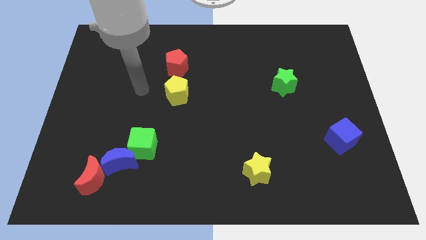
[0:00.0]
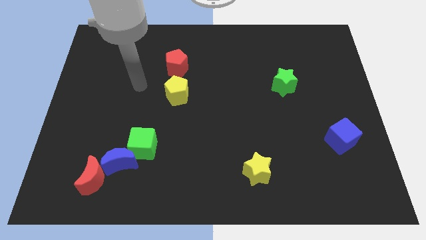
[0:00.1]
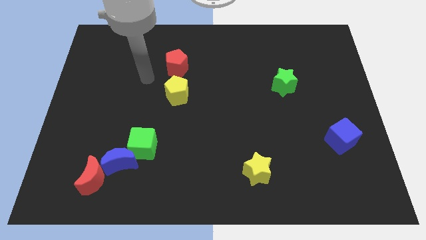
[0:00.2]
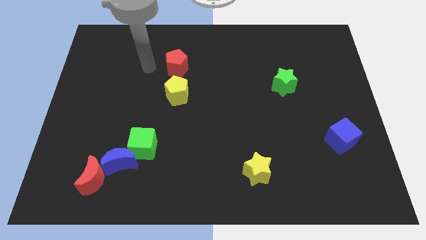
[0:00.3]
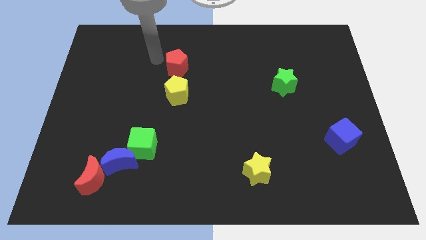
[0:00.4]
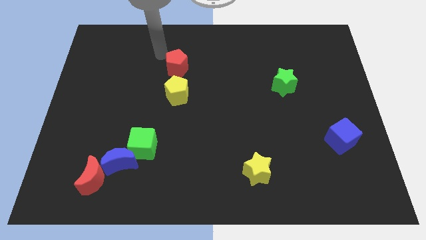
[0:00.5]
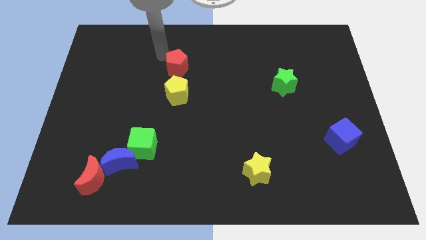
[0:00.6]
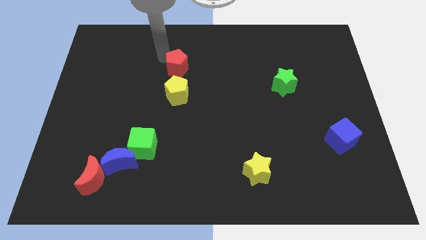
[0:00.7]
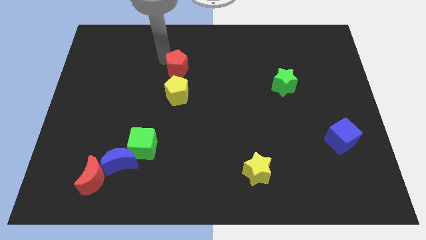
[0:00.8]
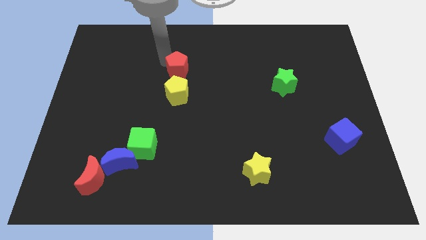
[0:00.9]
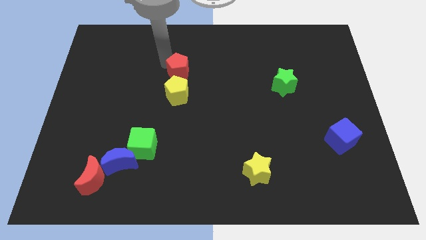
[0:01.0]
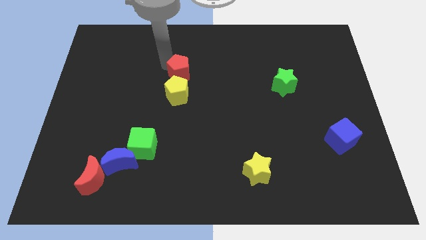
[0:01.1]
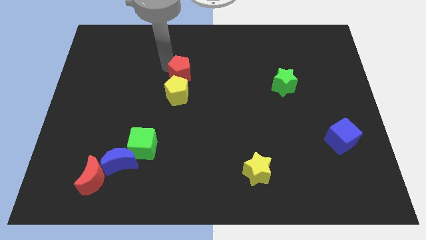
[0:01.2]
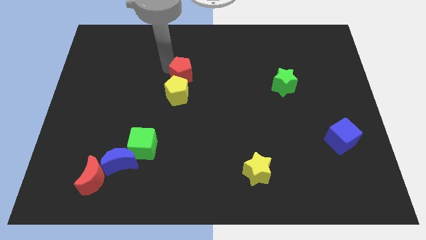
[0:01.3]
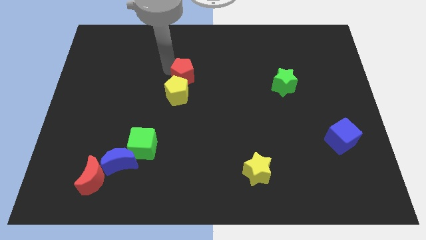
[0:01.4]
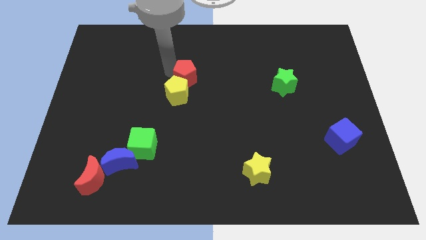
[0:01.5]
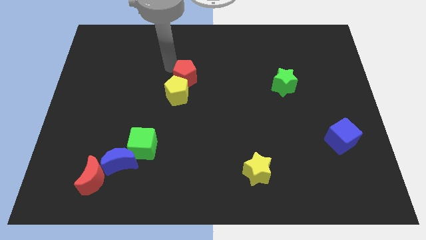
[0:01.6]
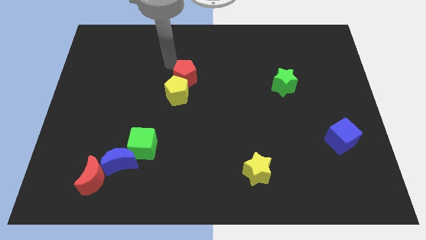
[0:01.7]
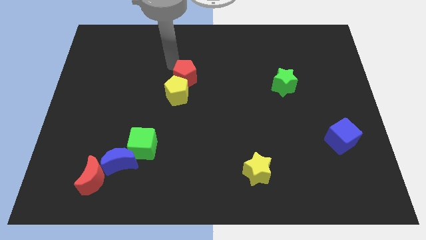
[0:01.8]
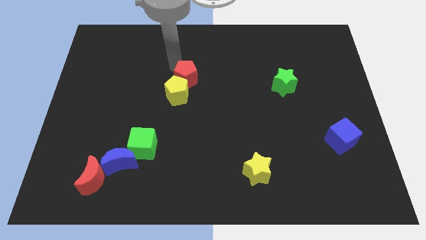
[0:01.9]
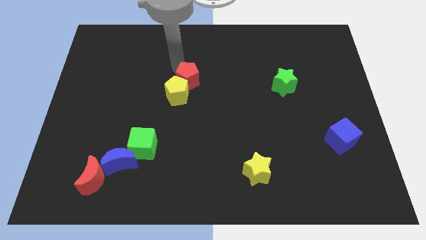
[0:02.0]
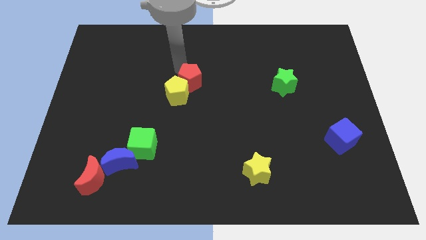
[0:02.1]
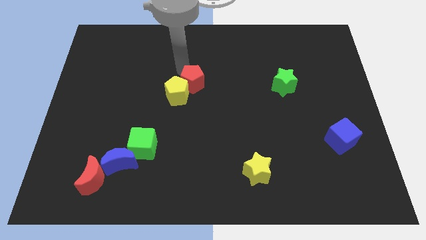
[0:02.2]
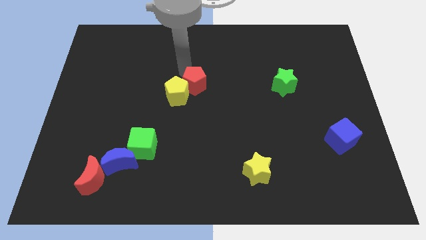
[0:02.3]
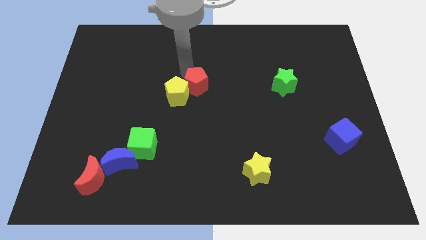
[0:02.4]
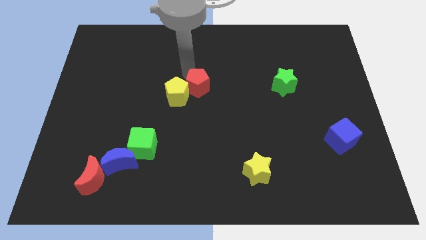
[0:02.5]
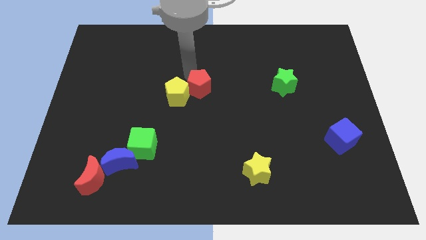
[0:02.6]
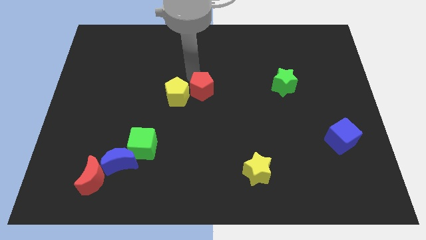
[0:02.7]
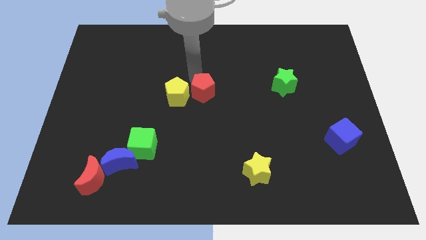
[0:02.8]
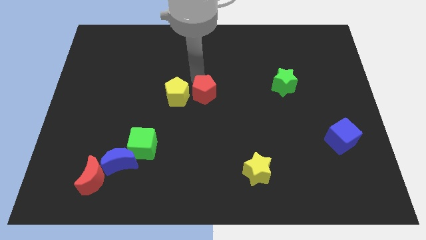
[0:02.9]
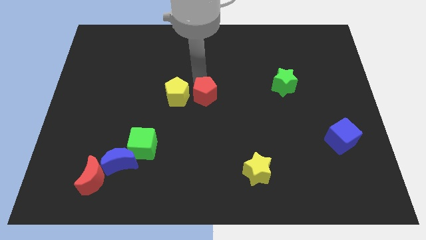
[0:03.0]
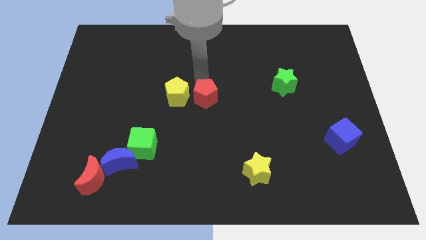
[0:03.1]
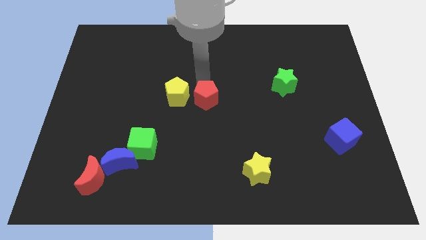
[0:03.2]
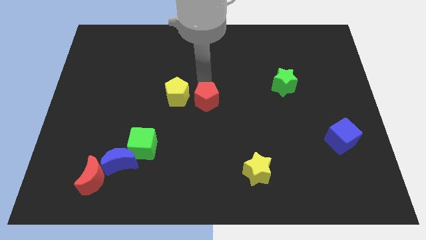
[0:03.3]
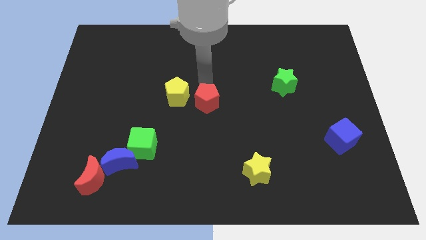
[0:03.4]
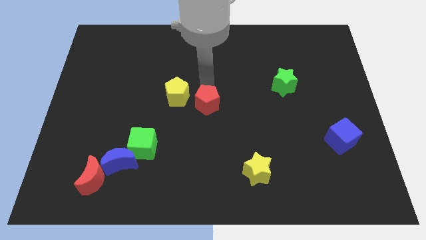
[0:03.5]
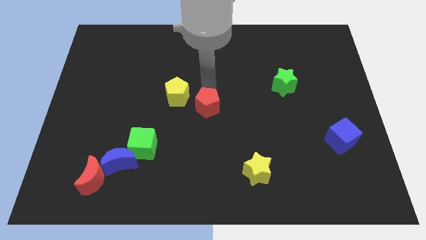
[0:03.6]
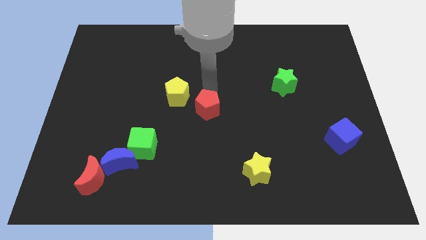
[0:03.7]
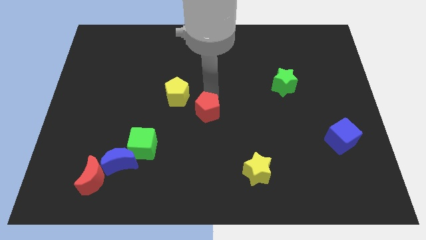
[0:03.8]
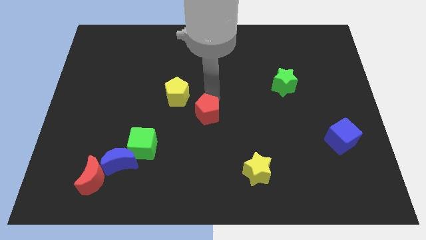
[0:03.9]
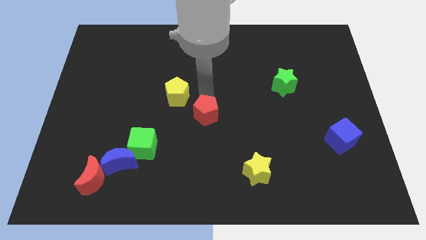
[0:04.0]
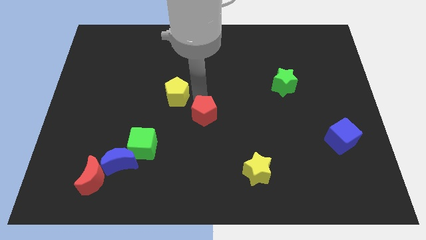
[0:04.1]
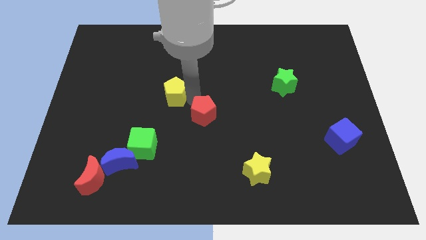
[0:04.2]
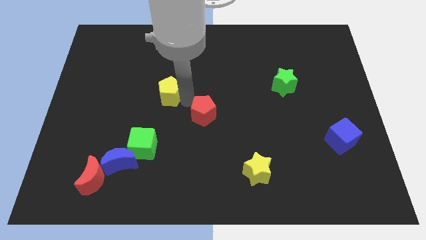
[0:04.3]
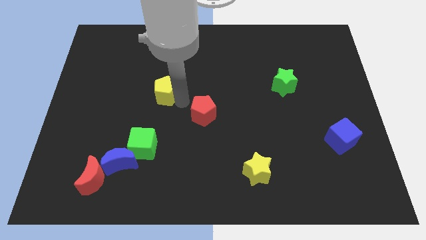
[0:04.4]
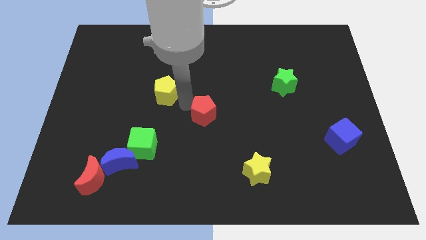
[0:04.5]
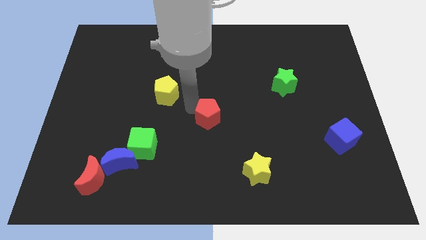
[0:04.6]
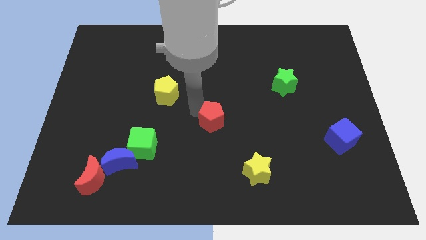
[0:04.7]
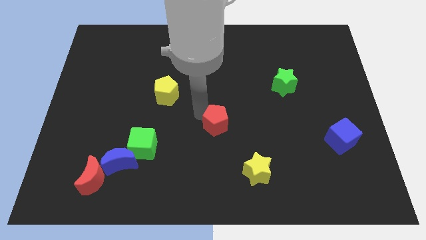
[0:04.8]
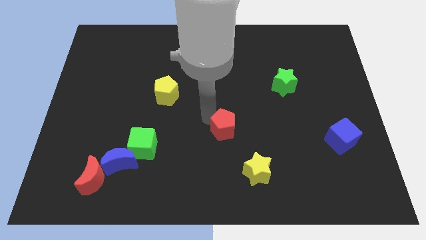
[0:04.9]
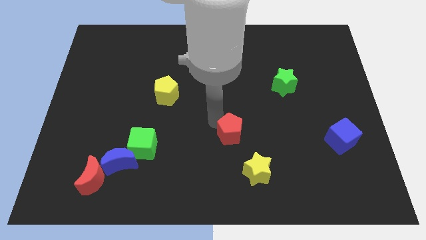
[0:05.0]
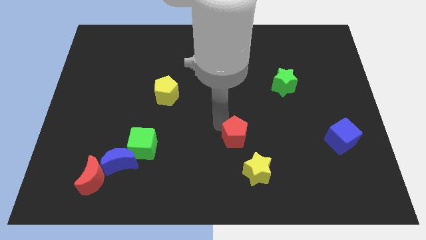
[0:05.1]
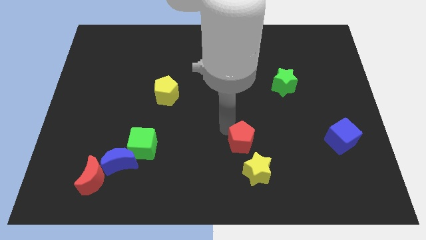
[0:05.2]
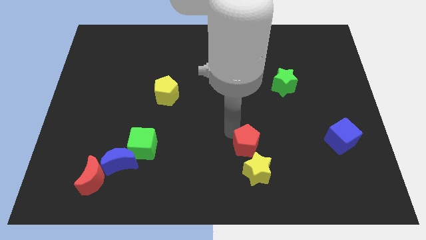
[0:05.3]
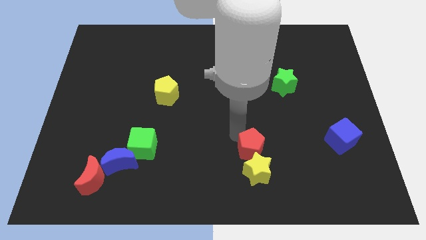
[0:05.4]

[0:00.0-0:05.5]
push the red pentagon towards the yellow star

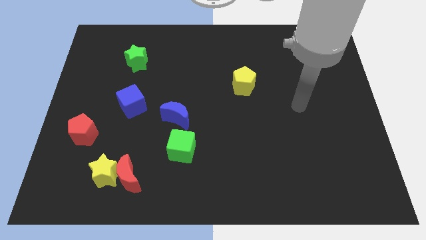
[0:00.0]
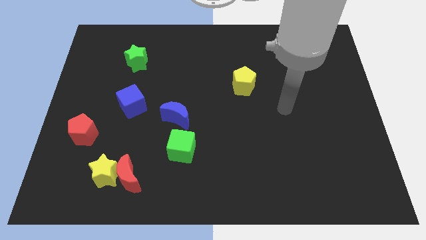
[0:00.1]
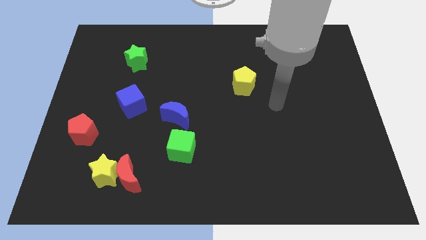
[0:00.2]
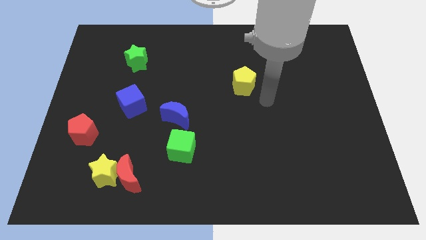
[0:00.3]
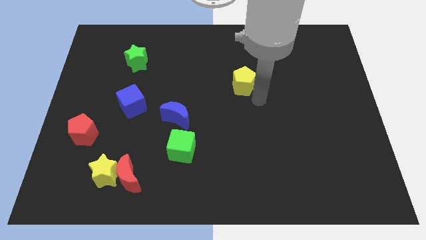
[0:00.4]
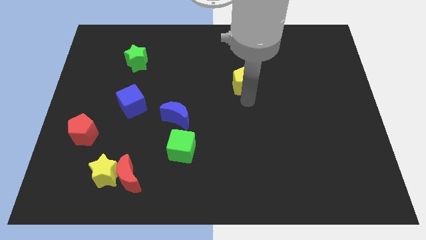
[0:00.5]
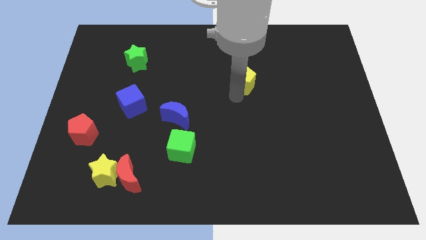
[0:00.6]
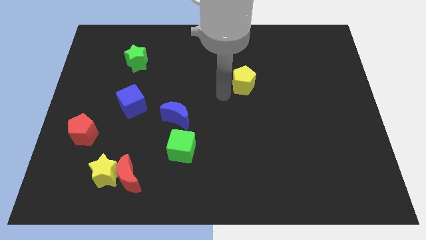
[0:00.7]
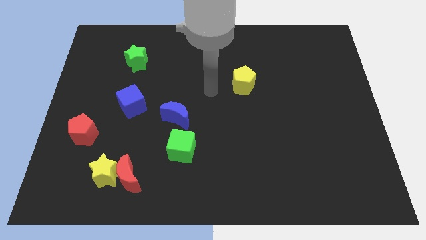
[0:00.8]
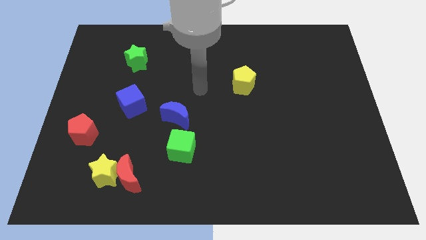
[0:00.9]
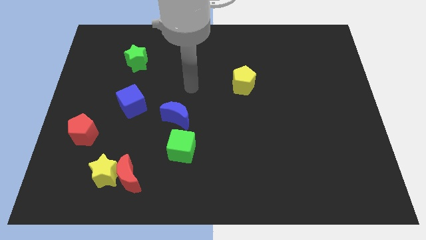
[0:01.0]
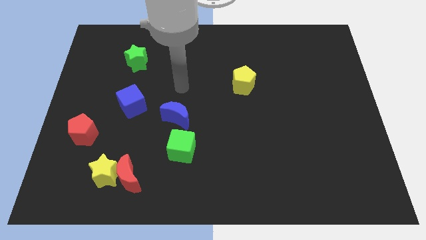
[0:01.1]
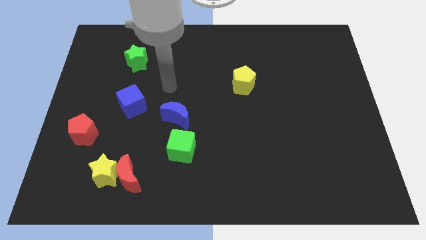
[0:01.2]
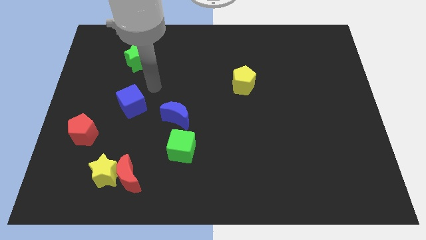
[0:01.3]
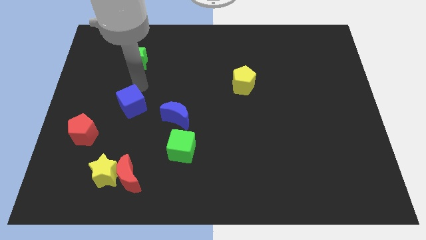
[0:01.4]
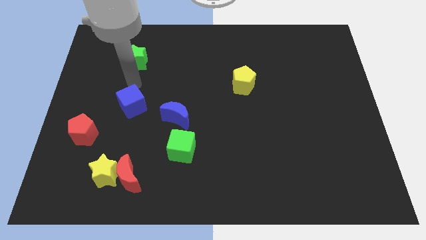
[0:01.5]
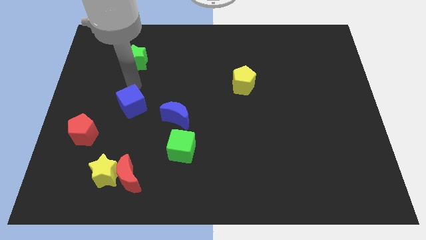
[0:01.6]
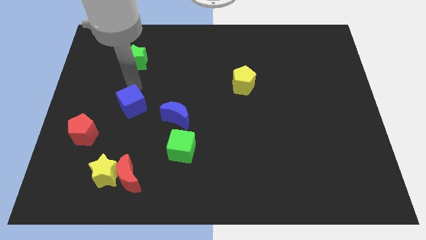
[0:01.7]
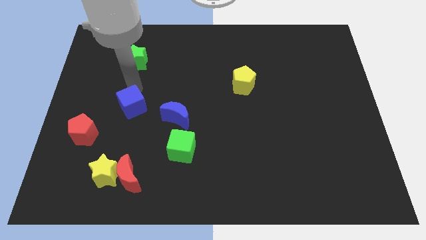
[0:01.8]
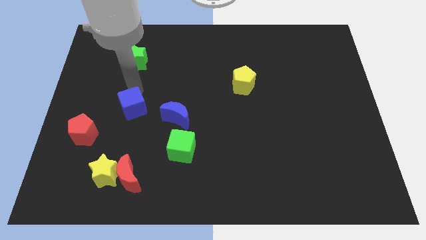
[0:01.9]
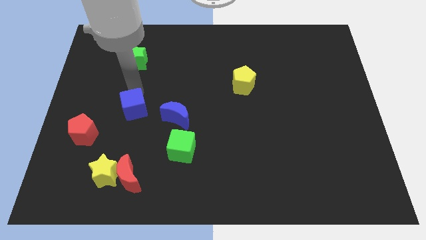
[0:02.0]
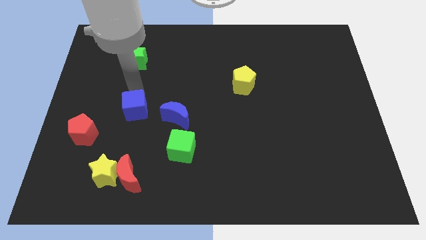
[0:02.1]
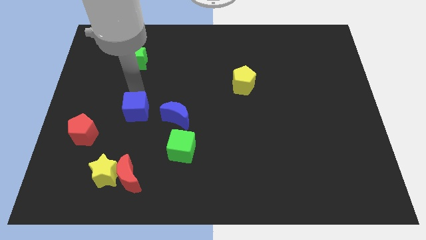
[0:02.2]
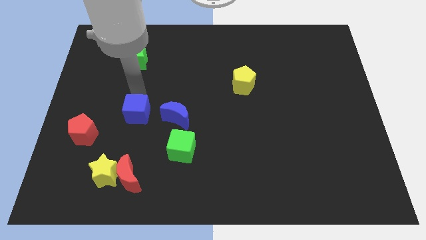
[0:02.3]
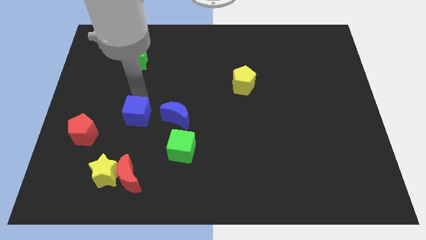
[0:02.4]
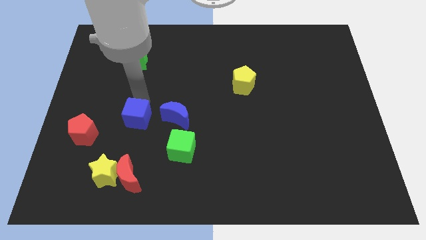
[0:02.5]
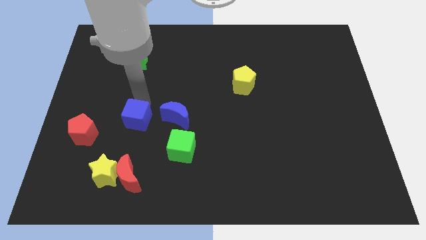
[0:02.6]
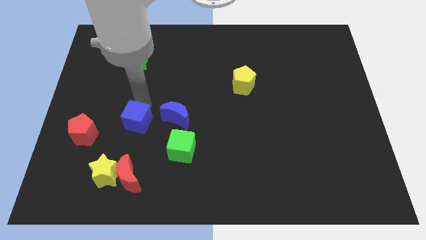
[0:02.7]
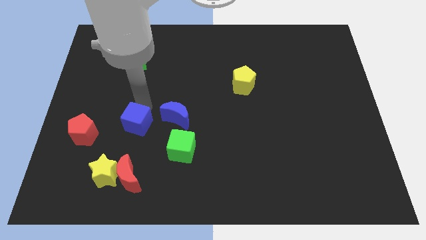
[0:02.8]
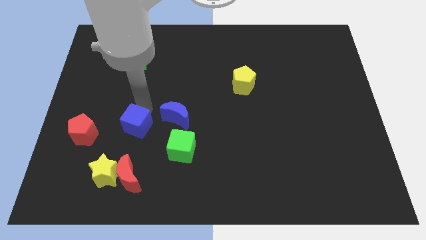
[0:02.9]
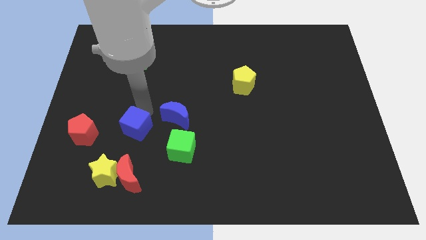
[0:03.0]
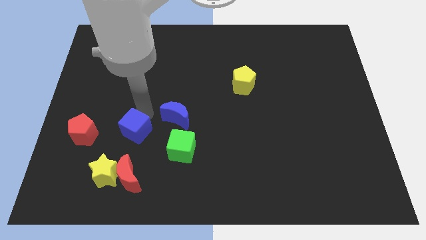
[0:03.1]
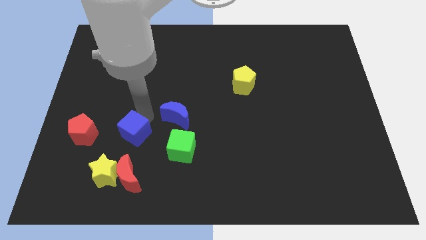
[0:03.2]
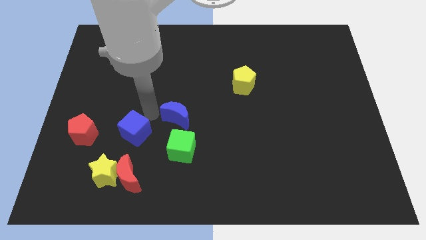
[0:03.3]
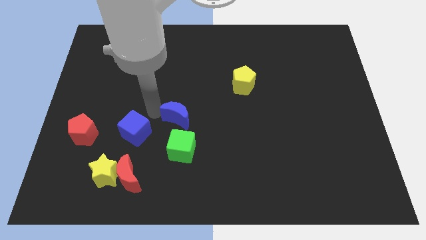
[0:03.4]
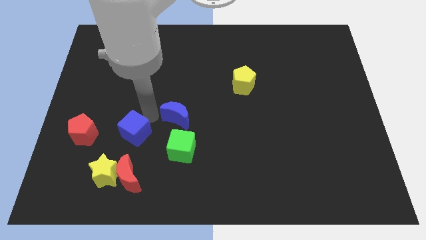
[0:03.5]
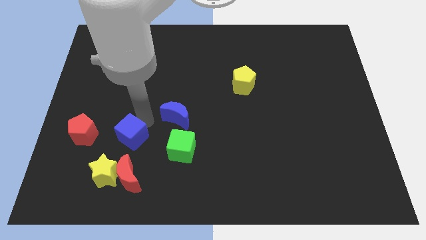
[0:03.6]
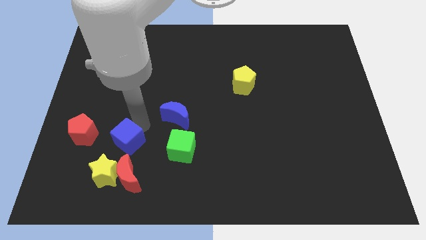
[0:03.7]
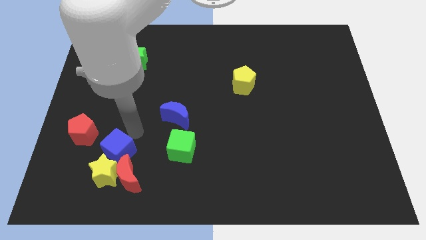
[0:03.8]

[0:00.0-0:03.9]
push the blue cube towards the yellow star
